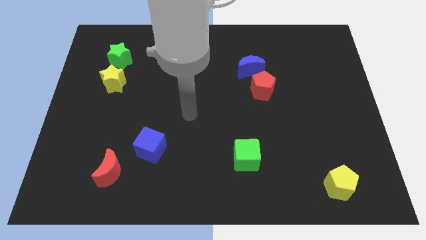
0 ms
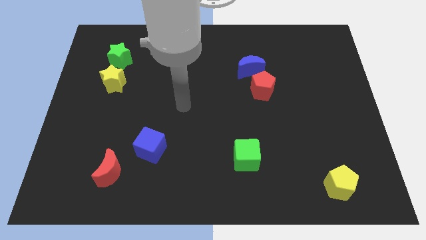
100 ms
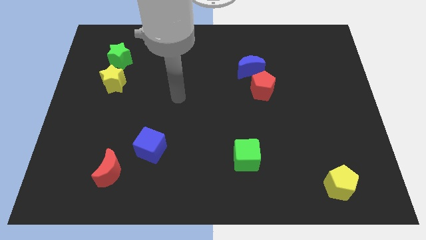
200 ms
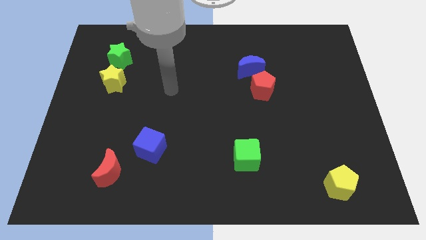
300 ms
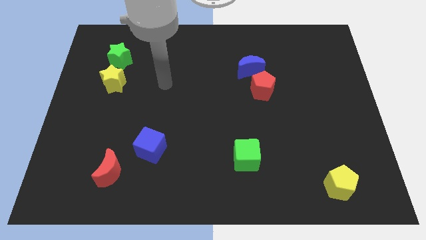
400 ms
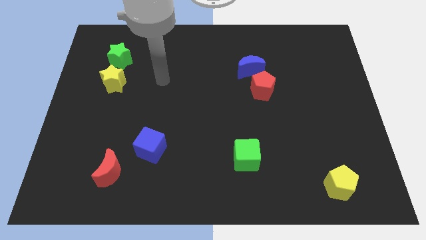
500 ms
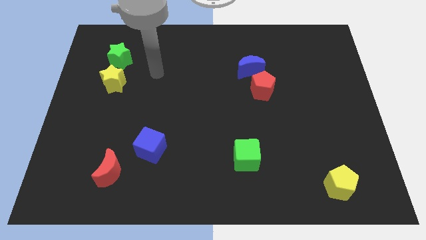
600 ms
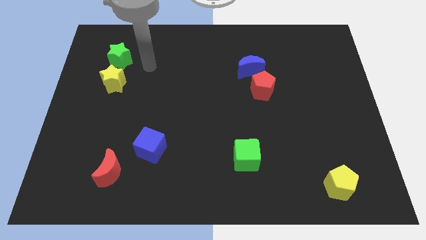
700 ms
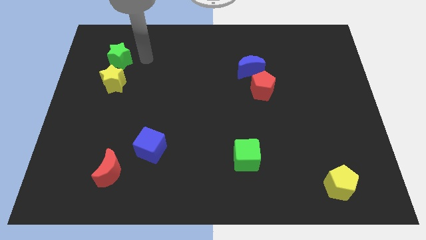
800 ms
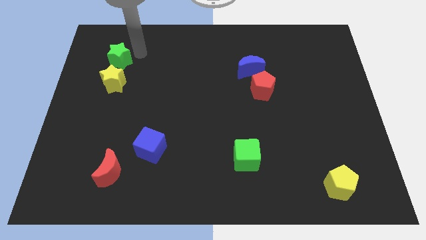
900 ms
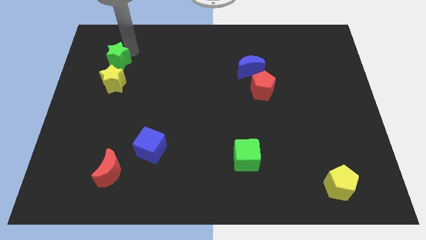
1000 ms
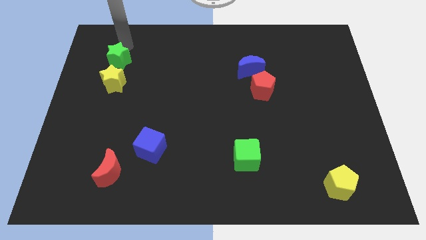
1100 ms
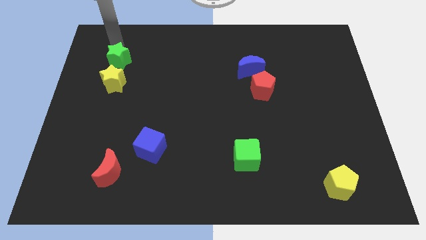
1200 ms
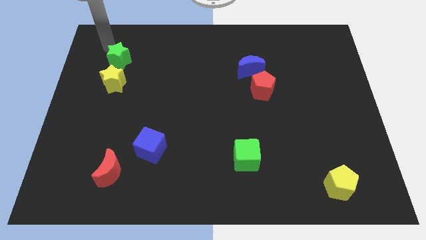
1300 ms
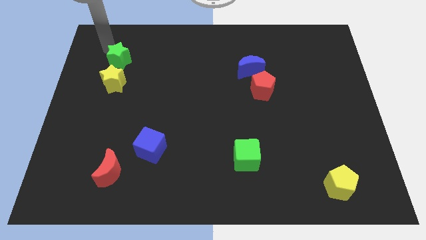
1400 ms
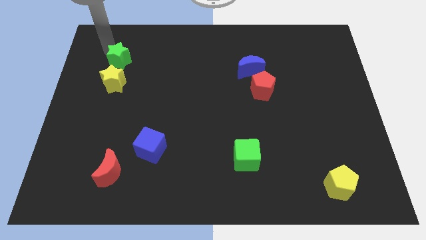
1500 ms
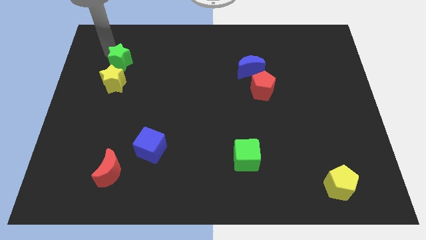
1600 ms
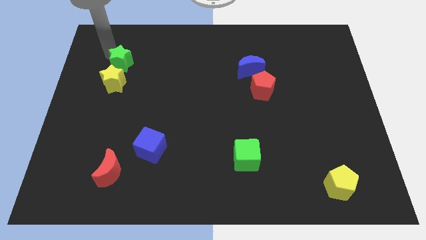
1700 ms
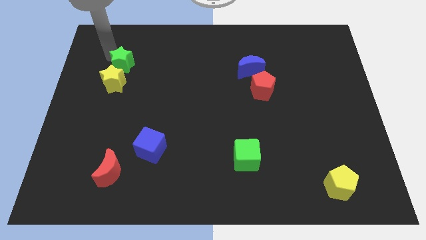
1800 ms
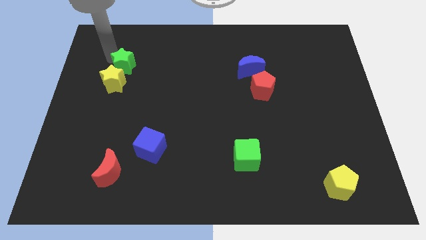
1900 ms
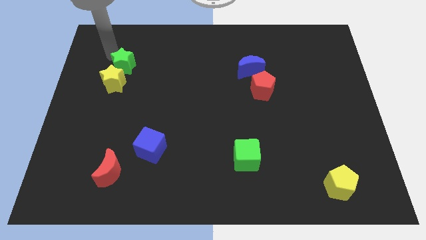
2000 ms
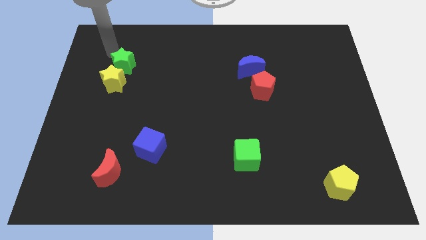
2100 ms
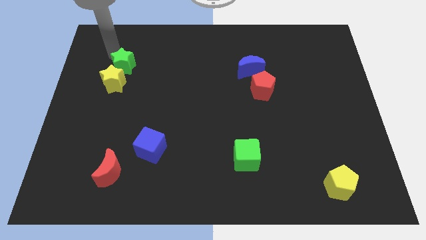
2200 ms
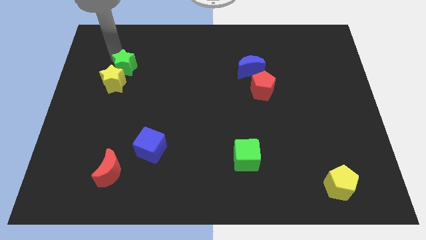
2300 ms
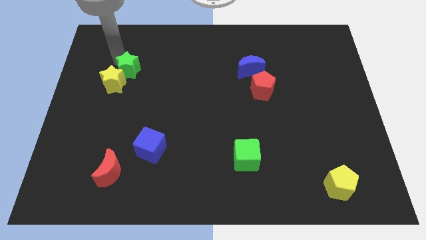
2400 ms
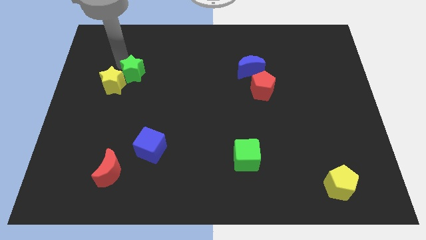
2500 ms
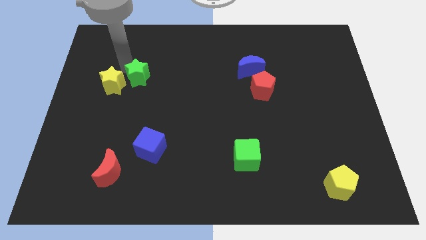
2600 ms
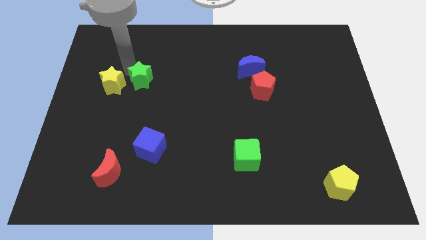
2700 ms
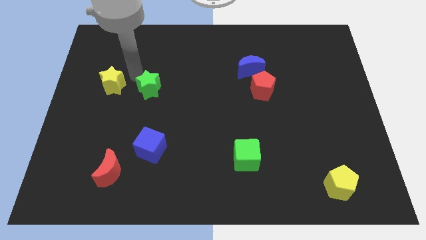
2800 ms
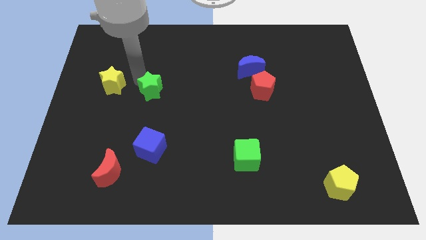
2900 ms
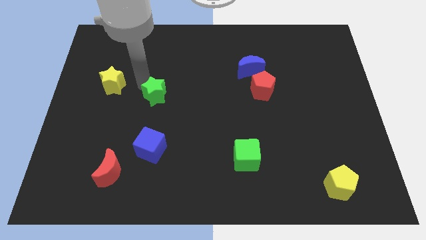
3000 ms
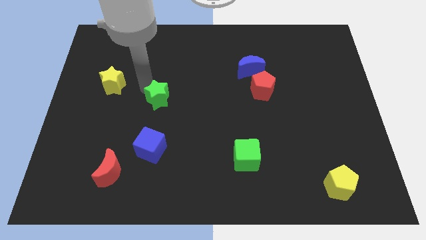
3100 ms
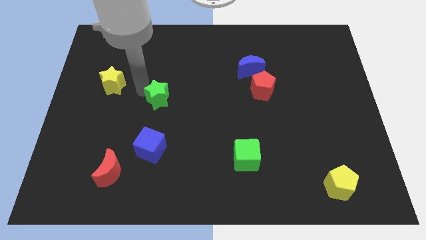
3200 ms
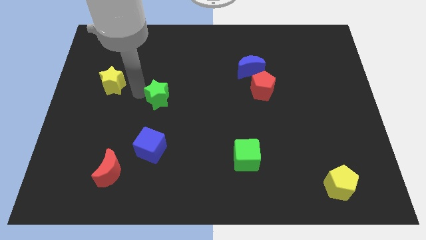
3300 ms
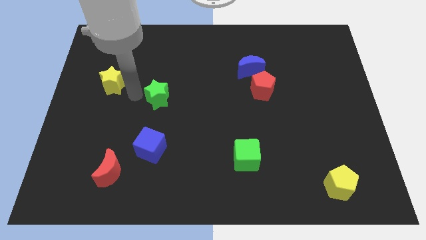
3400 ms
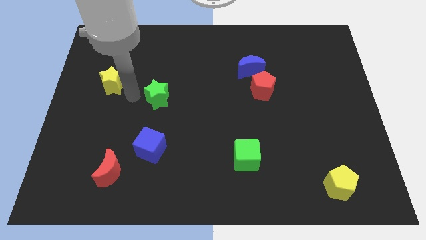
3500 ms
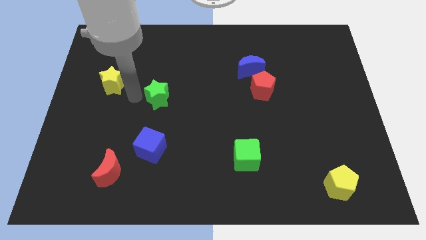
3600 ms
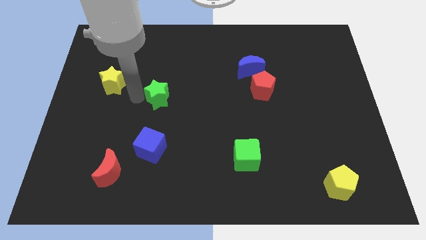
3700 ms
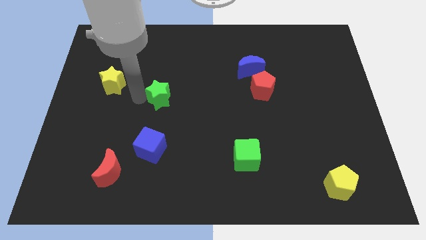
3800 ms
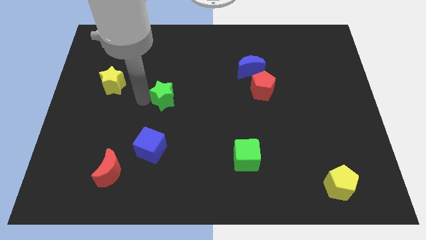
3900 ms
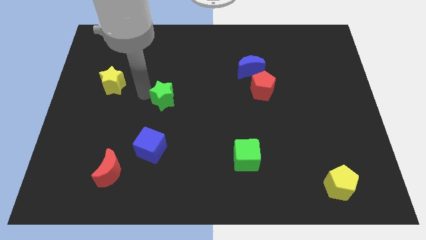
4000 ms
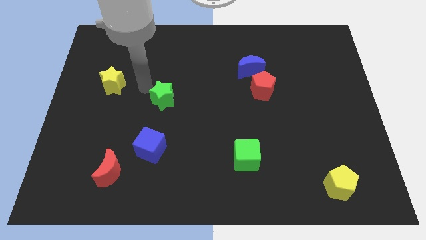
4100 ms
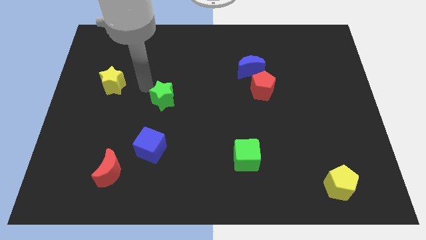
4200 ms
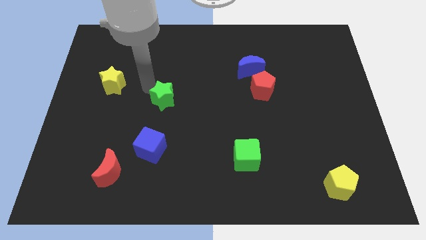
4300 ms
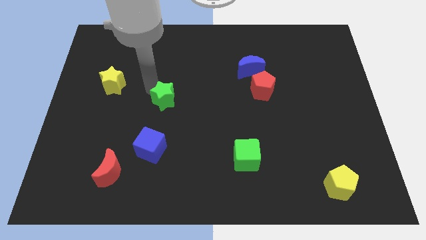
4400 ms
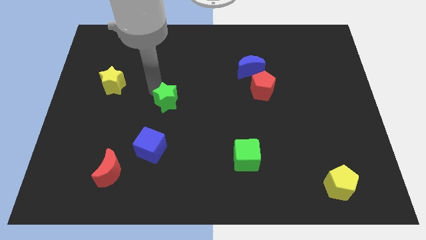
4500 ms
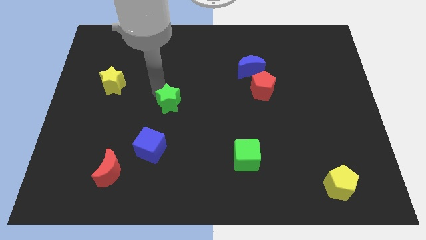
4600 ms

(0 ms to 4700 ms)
move the green star downwards and right

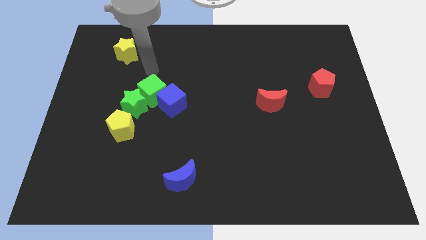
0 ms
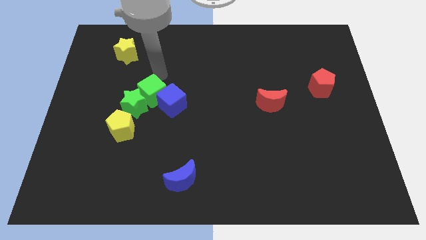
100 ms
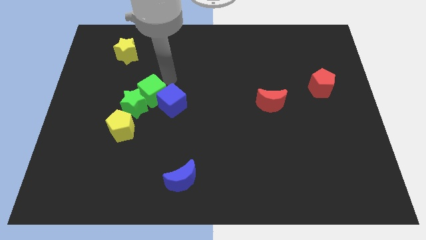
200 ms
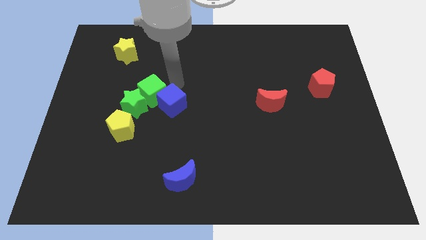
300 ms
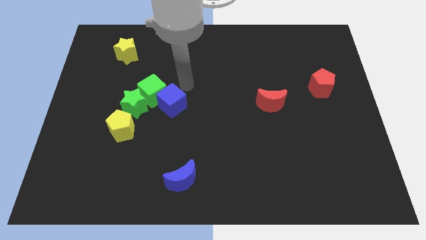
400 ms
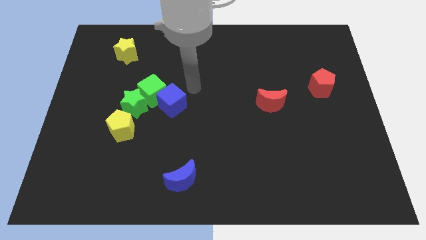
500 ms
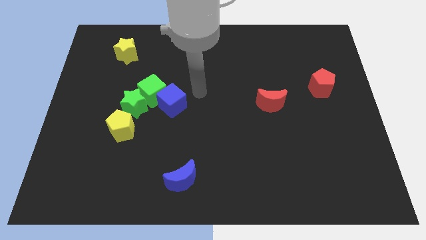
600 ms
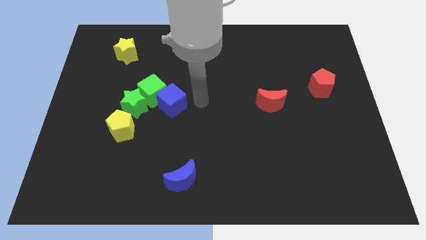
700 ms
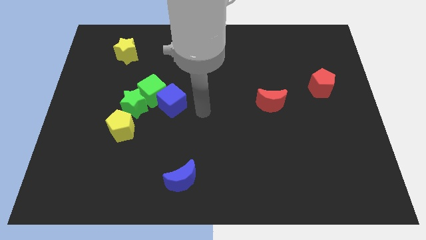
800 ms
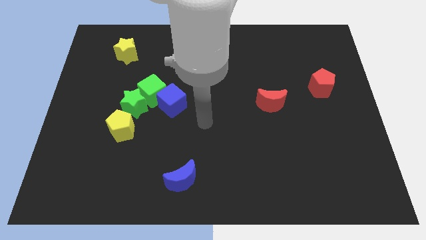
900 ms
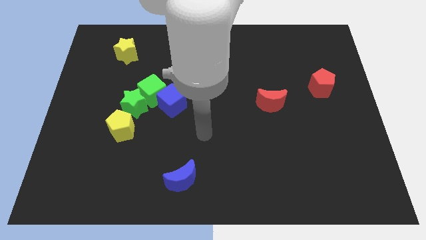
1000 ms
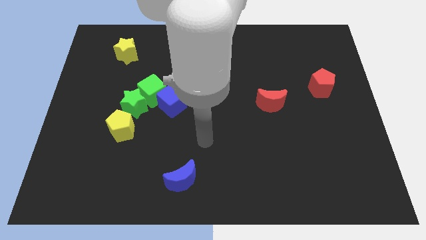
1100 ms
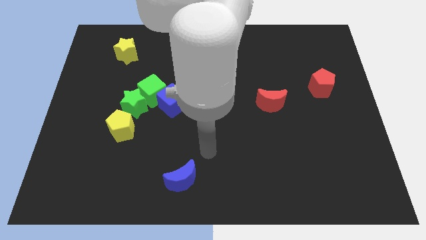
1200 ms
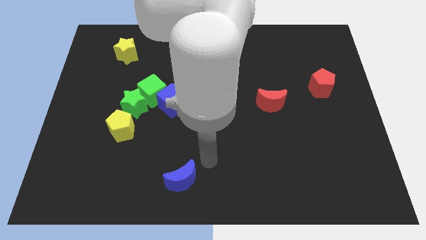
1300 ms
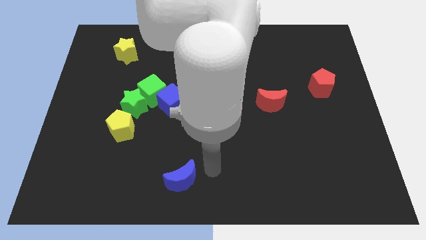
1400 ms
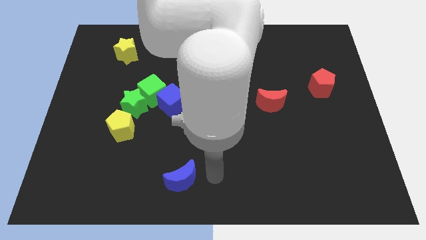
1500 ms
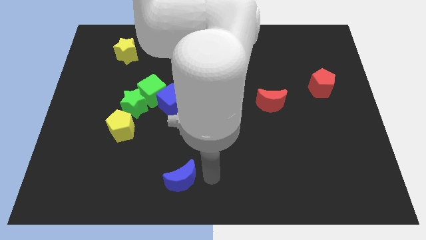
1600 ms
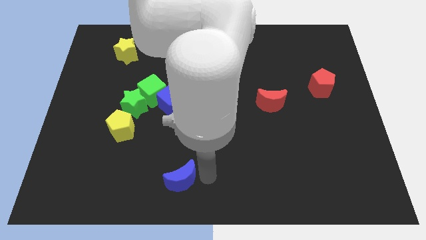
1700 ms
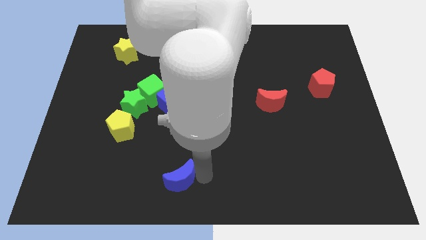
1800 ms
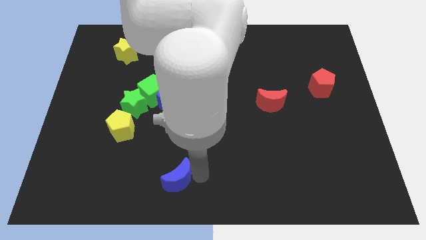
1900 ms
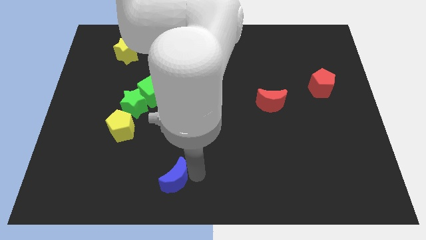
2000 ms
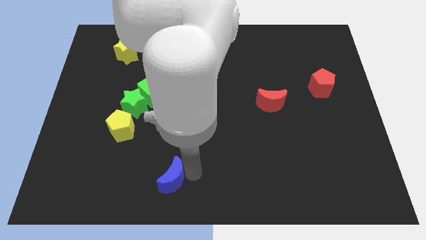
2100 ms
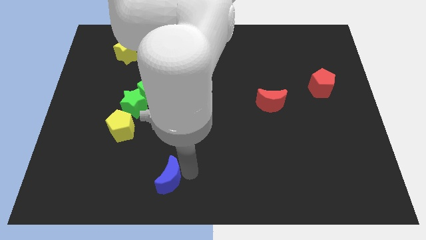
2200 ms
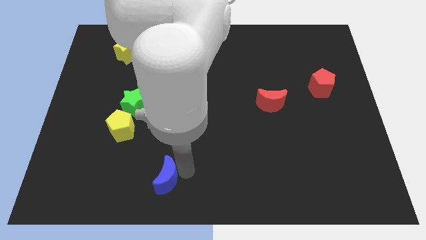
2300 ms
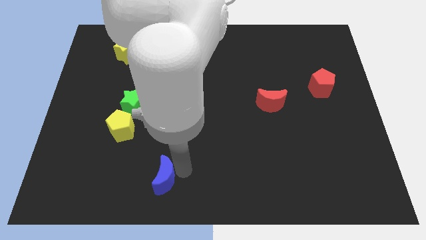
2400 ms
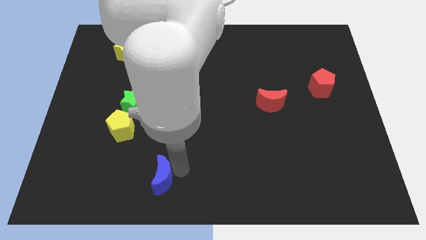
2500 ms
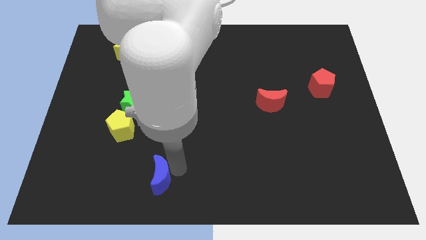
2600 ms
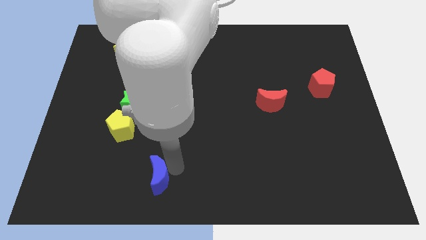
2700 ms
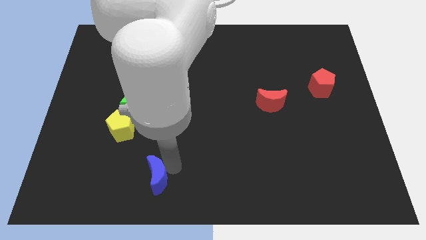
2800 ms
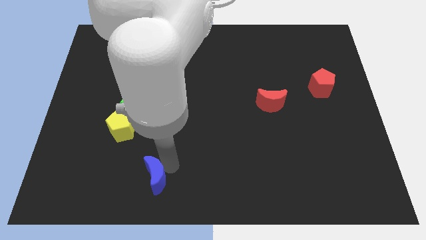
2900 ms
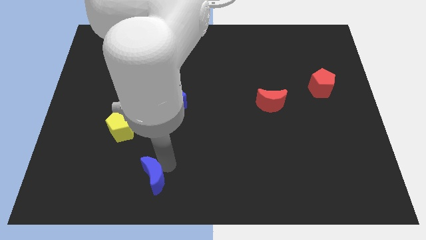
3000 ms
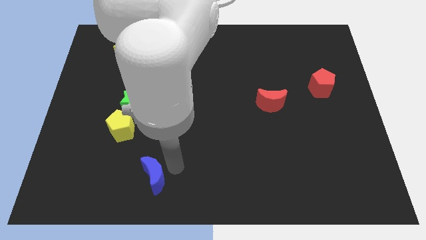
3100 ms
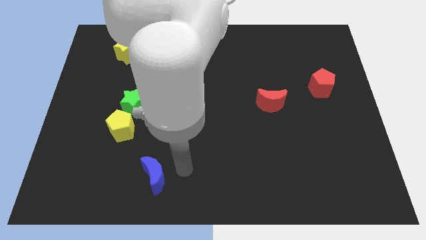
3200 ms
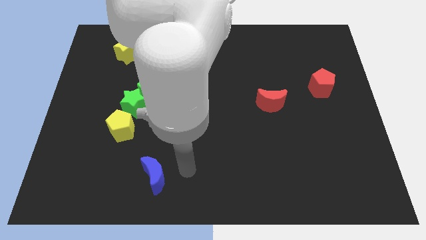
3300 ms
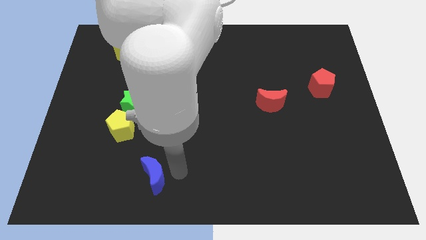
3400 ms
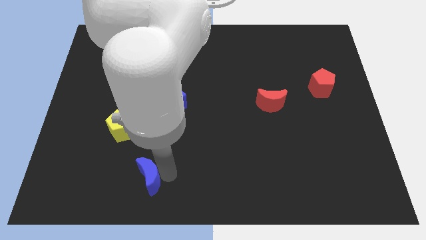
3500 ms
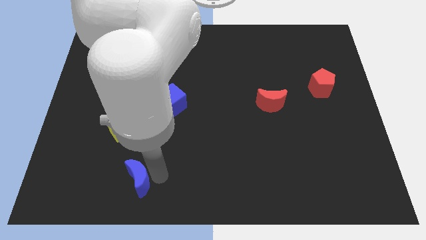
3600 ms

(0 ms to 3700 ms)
push the blue moon a little bit left
